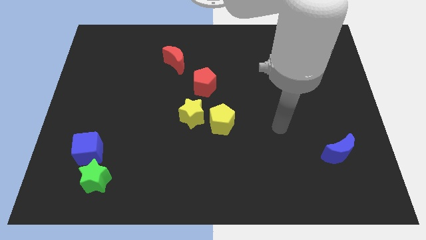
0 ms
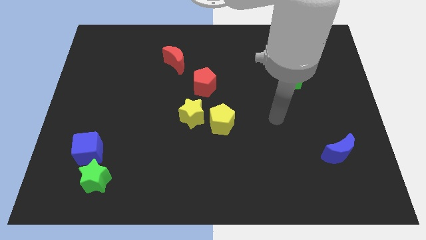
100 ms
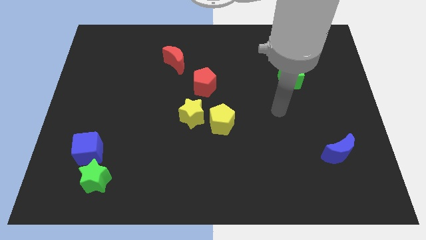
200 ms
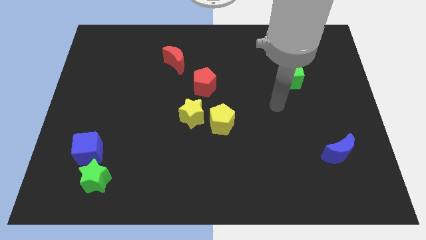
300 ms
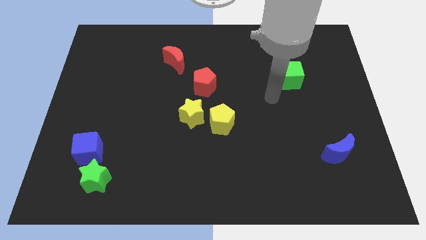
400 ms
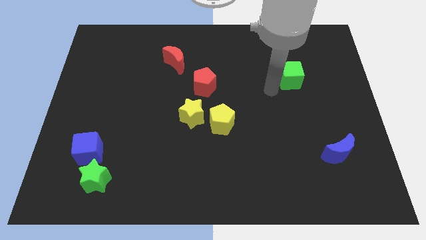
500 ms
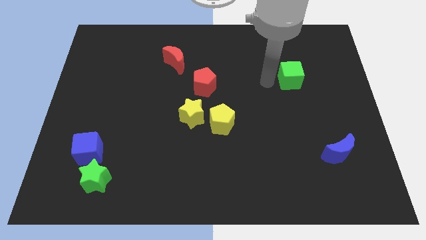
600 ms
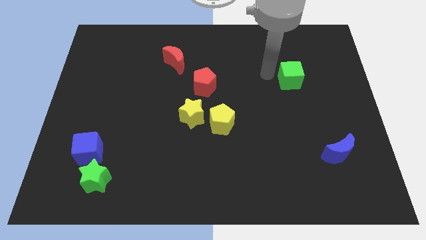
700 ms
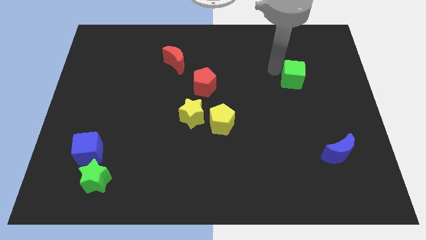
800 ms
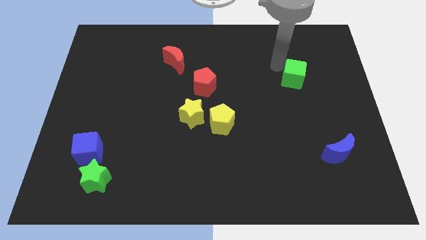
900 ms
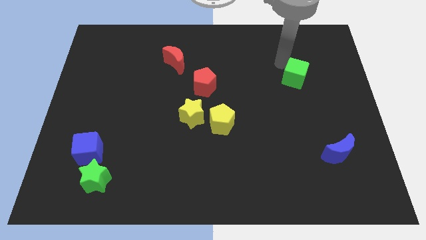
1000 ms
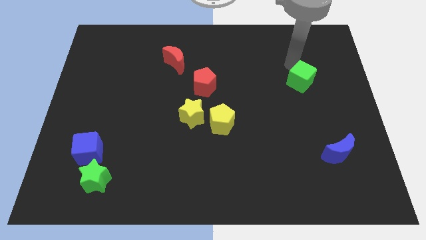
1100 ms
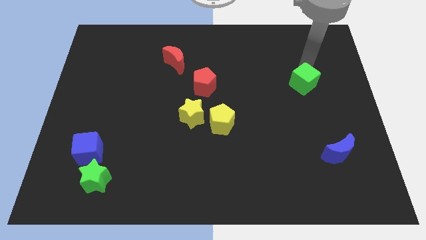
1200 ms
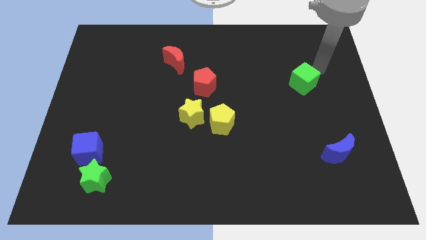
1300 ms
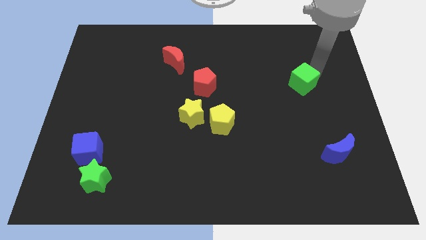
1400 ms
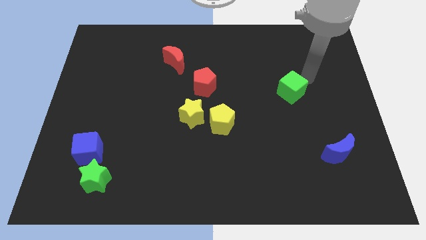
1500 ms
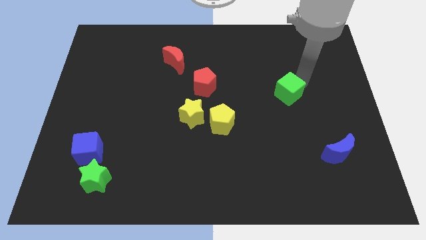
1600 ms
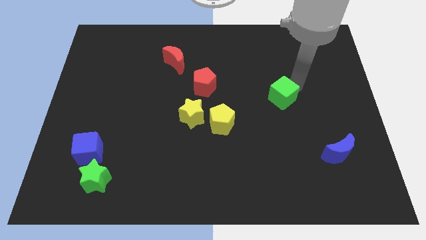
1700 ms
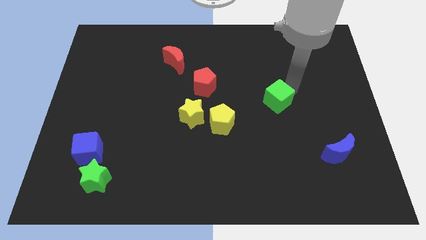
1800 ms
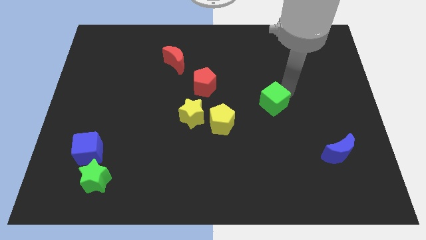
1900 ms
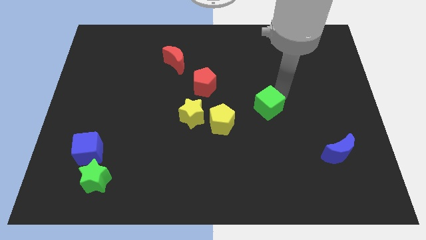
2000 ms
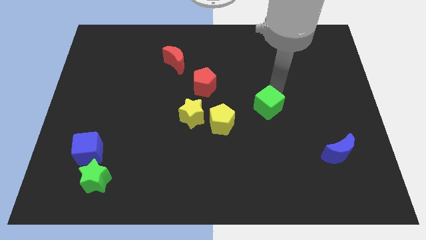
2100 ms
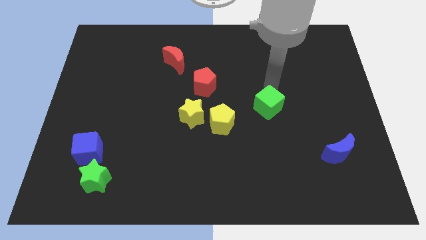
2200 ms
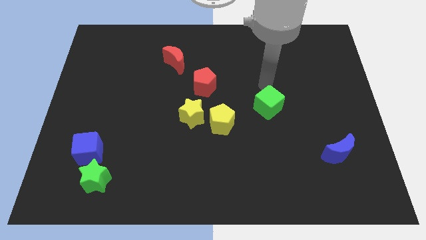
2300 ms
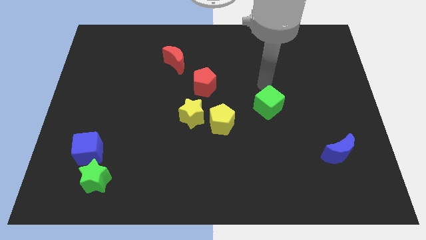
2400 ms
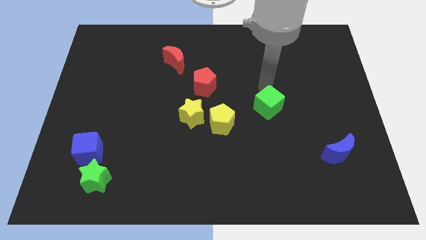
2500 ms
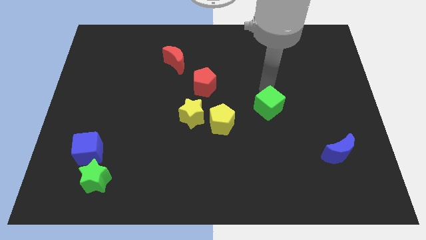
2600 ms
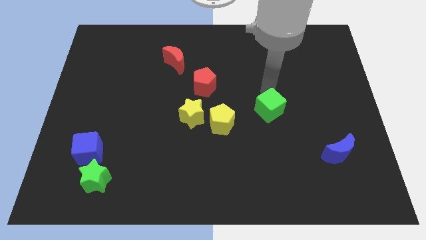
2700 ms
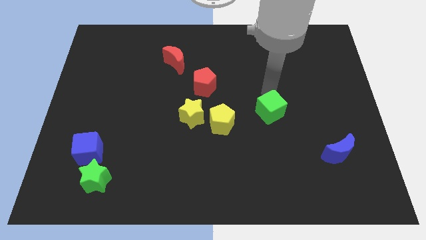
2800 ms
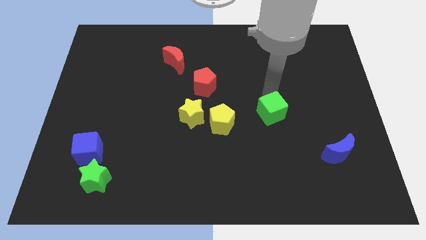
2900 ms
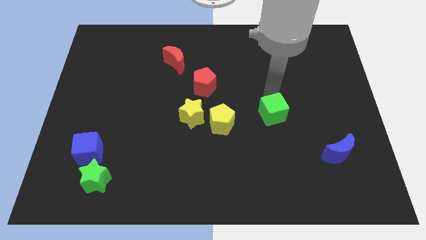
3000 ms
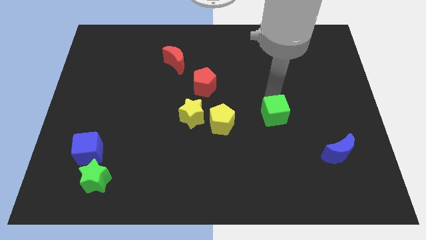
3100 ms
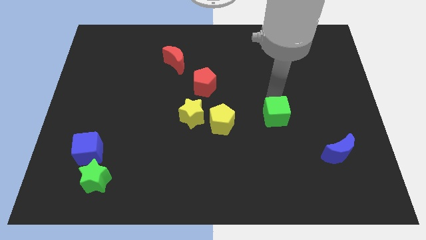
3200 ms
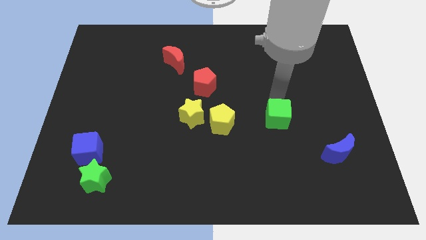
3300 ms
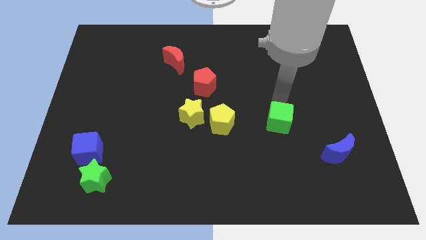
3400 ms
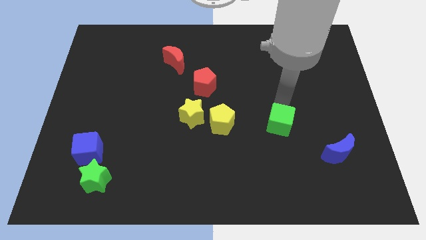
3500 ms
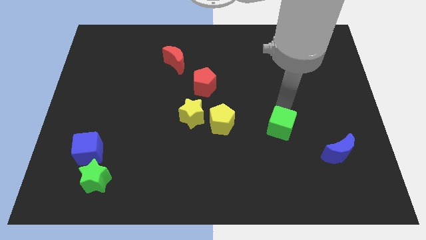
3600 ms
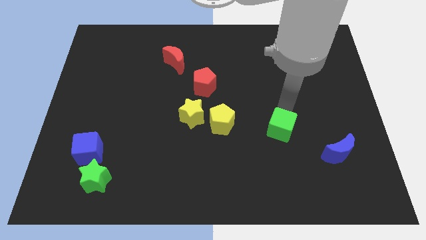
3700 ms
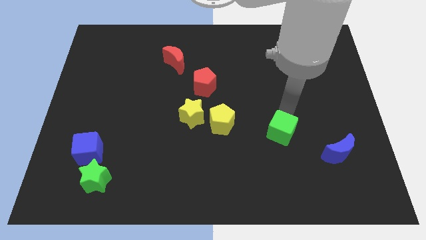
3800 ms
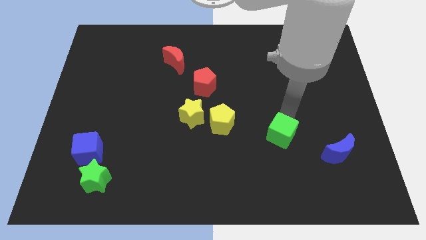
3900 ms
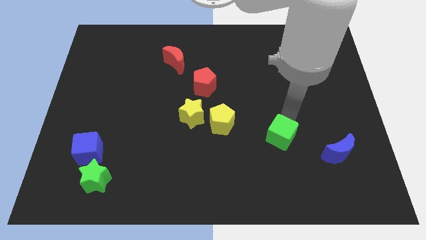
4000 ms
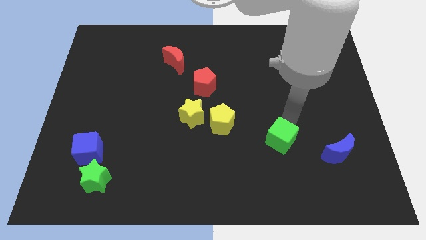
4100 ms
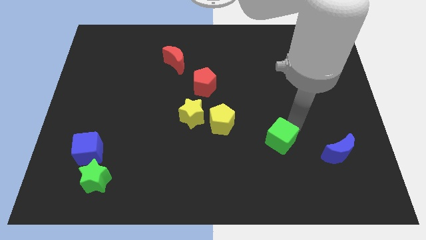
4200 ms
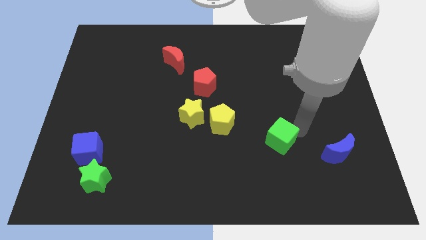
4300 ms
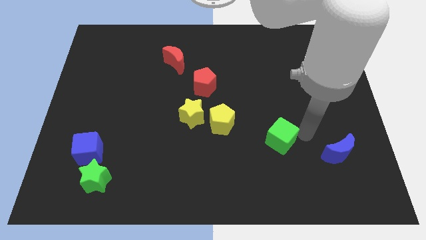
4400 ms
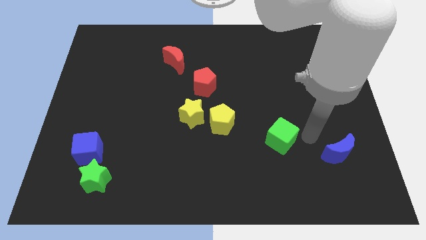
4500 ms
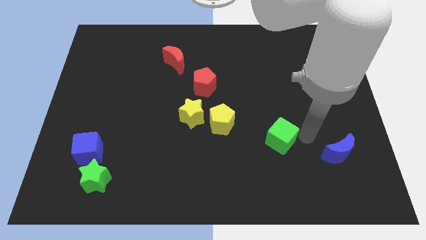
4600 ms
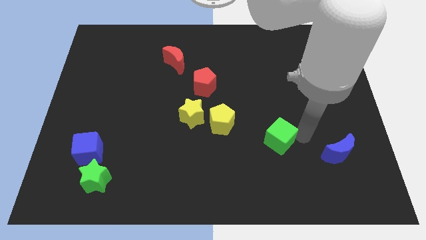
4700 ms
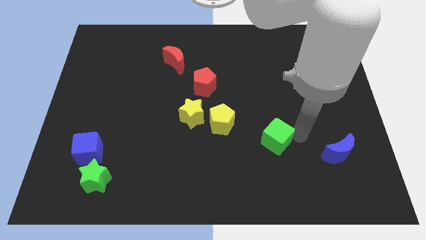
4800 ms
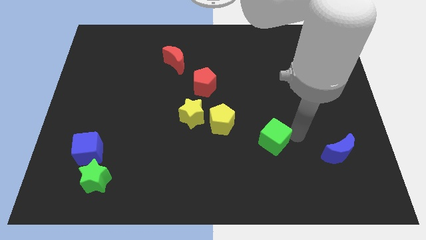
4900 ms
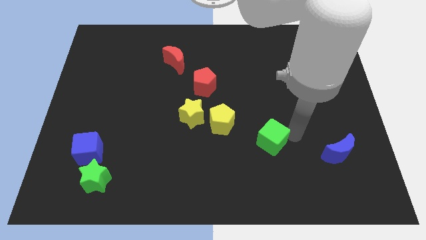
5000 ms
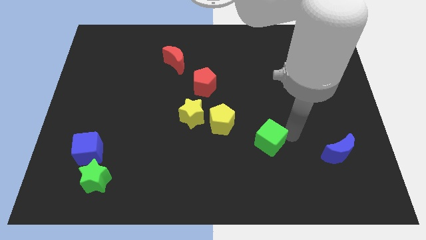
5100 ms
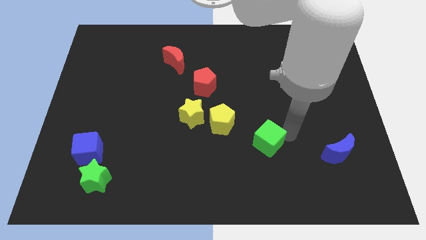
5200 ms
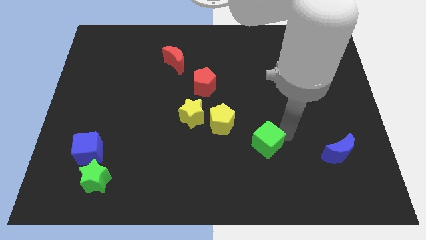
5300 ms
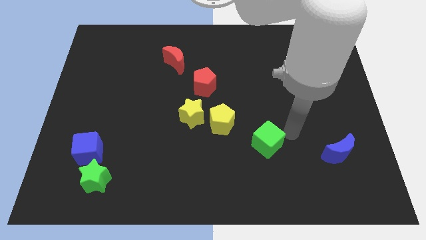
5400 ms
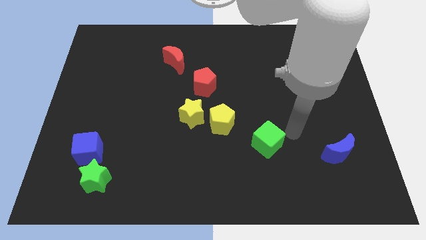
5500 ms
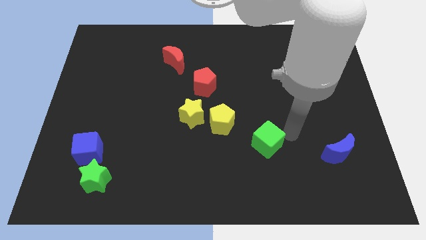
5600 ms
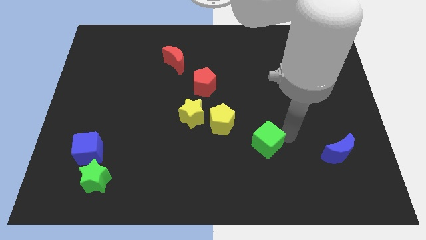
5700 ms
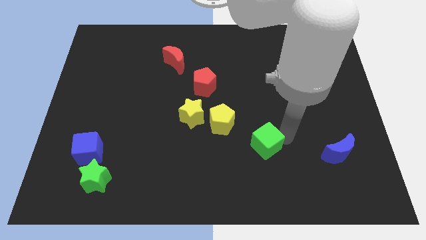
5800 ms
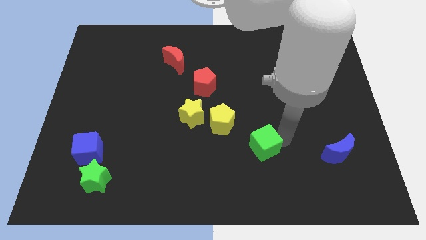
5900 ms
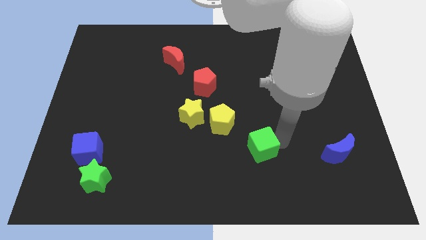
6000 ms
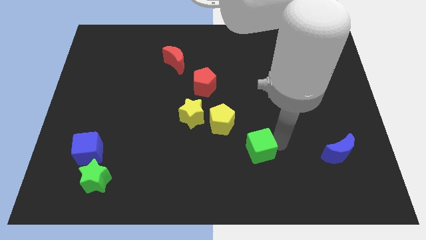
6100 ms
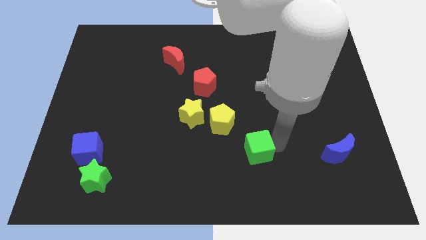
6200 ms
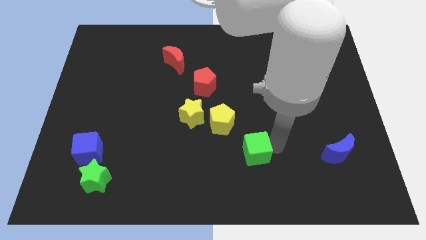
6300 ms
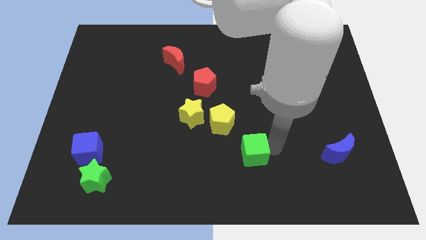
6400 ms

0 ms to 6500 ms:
move the green cube downwards and to the left

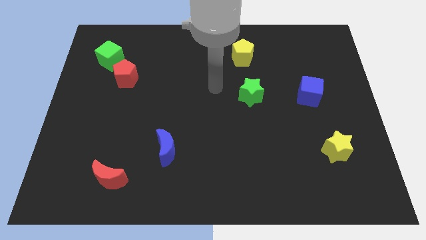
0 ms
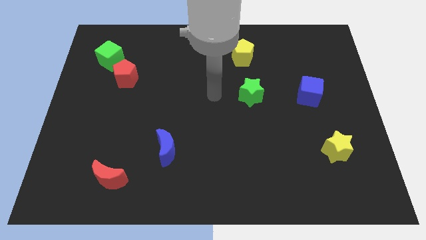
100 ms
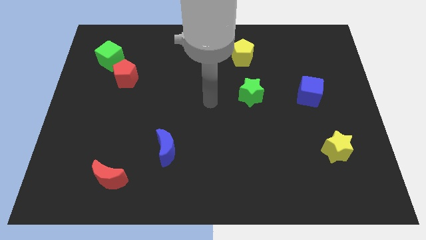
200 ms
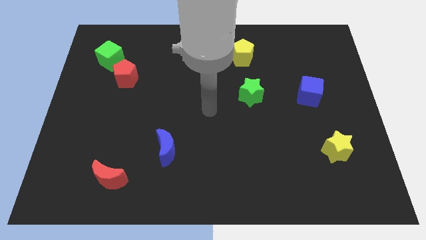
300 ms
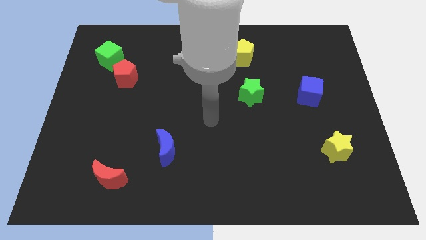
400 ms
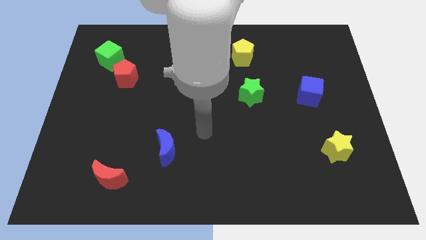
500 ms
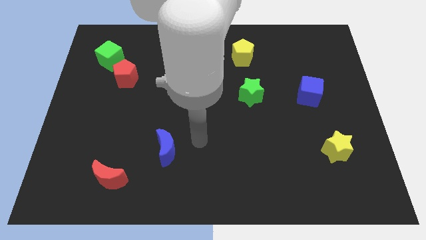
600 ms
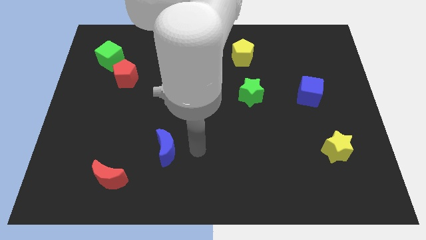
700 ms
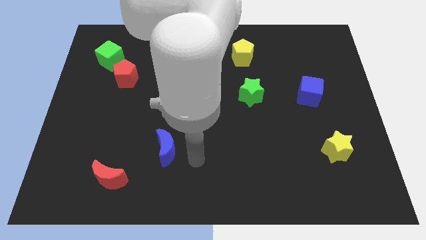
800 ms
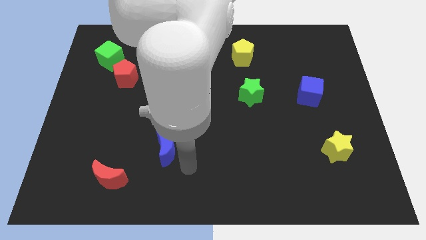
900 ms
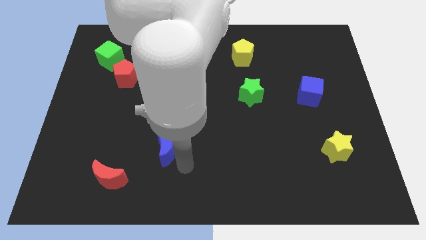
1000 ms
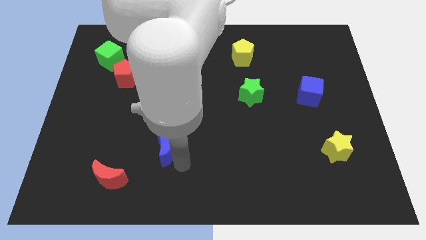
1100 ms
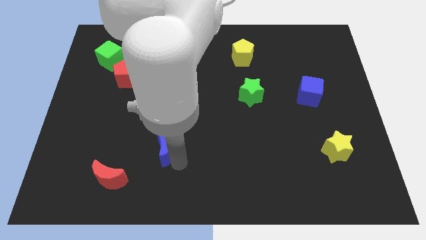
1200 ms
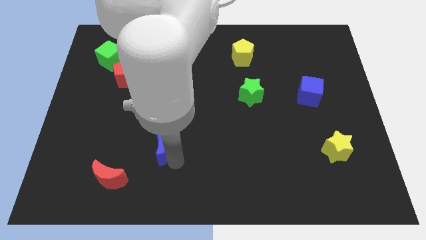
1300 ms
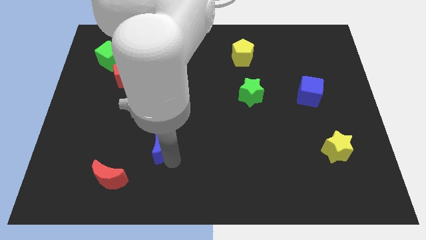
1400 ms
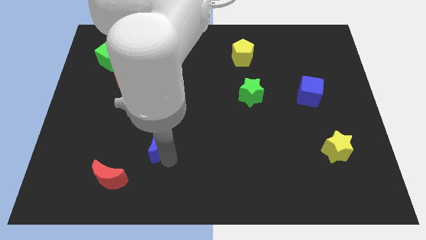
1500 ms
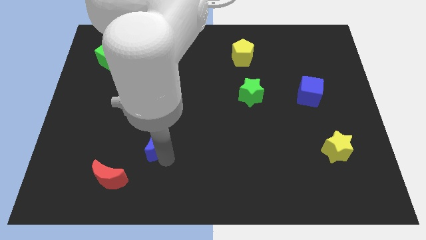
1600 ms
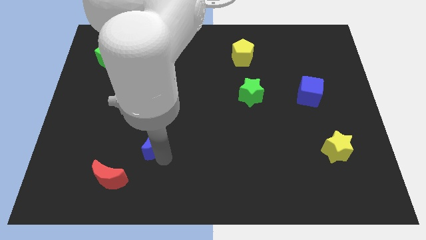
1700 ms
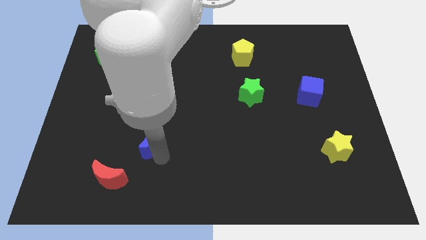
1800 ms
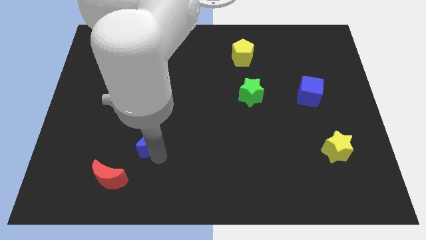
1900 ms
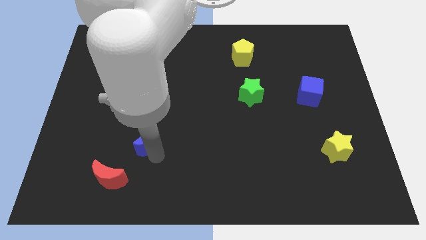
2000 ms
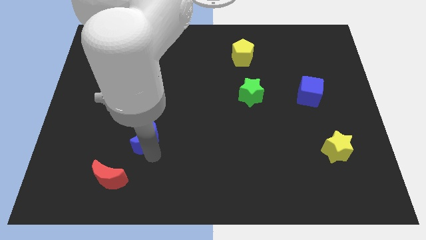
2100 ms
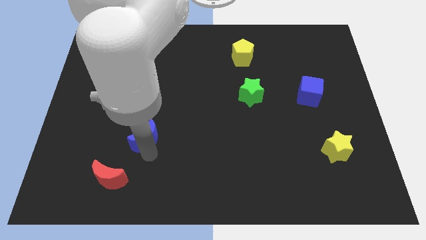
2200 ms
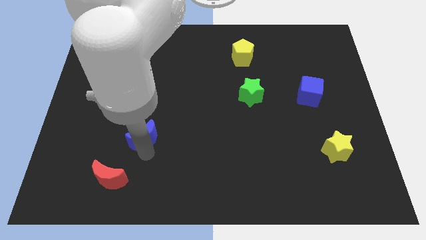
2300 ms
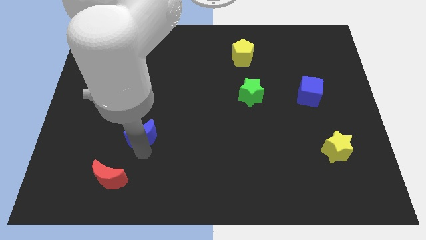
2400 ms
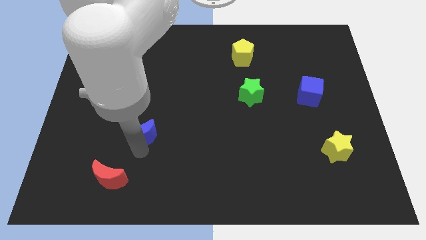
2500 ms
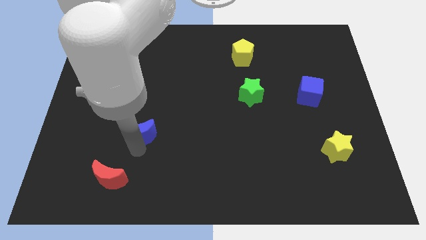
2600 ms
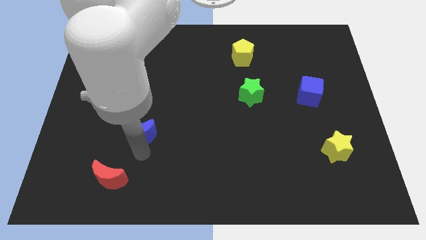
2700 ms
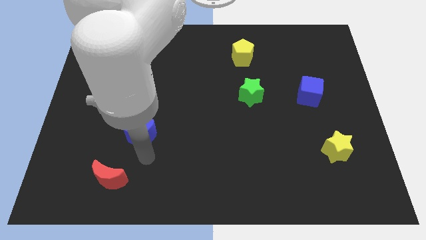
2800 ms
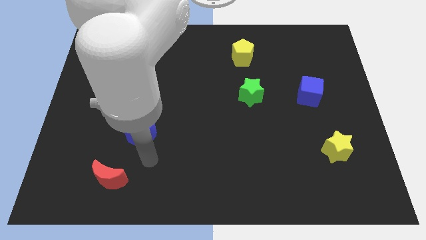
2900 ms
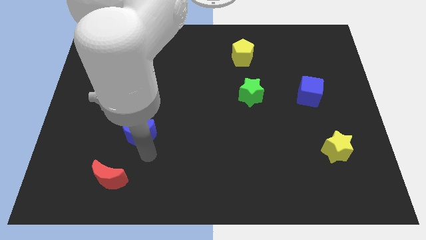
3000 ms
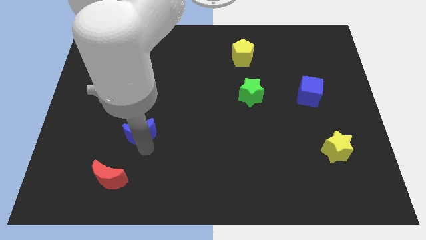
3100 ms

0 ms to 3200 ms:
slightly slide the blue moon up and to the left diagonally
